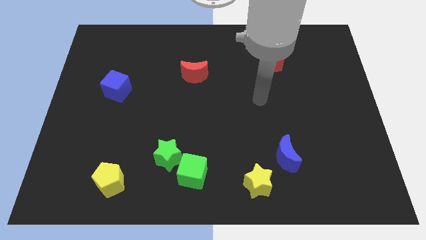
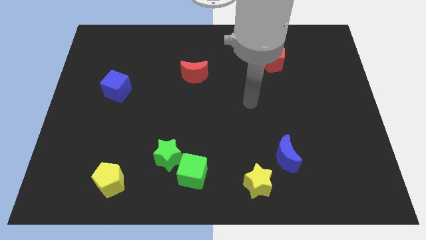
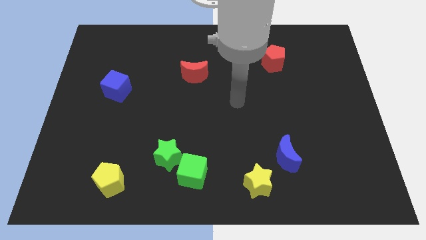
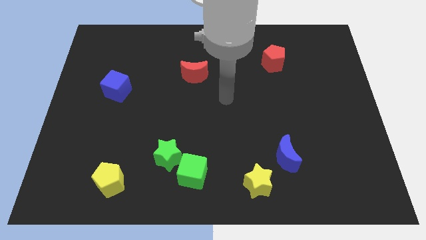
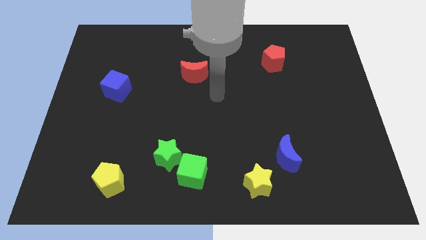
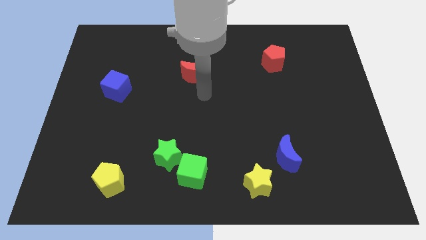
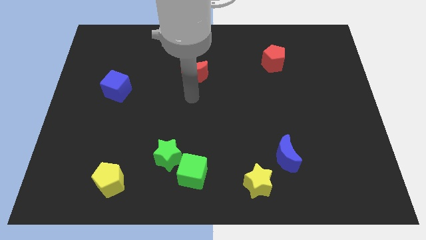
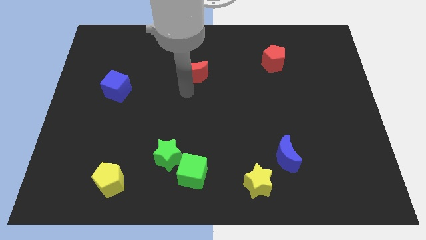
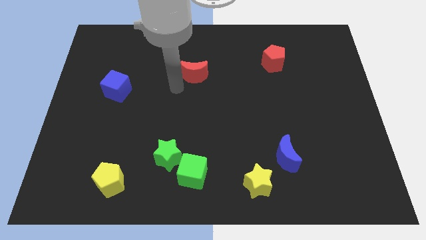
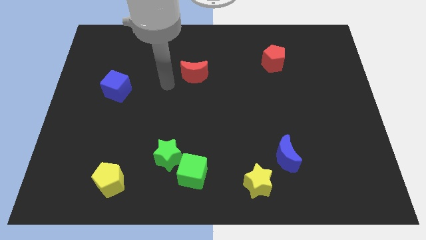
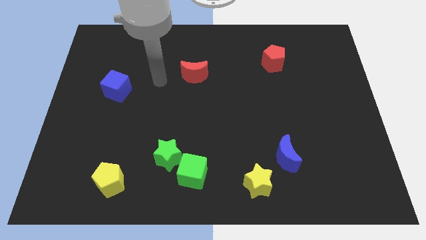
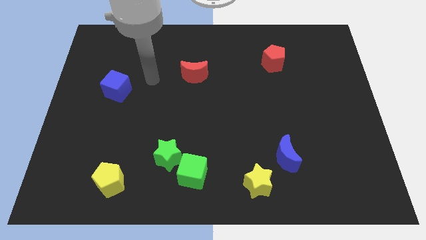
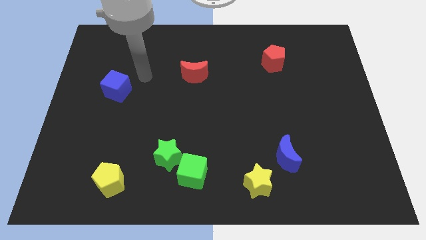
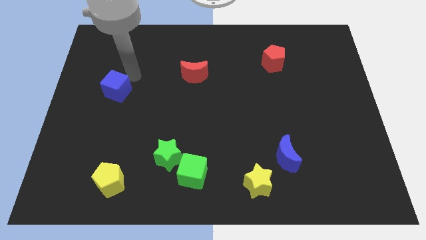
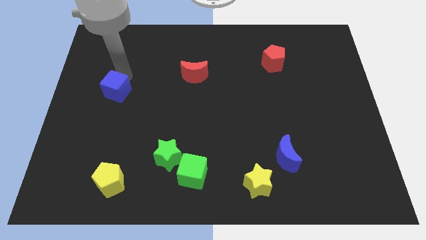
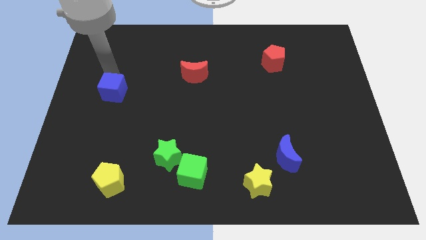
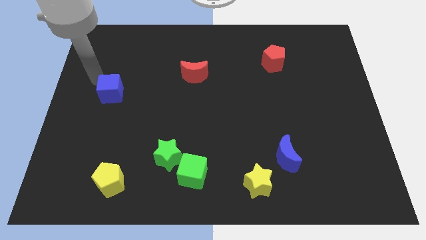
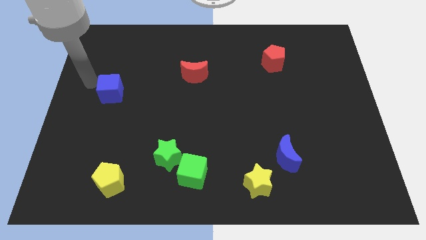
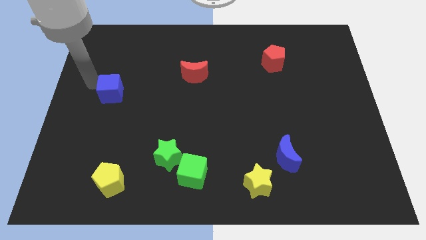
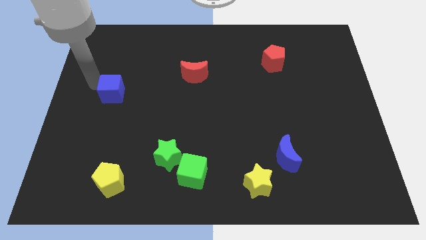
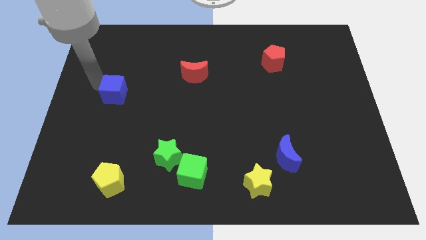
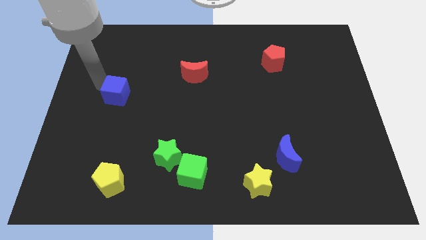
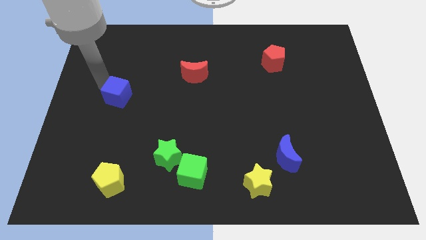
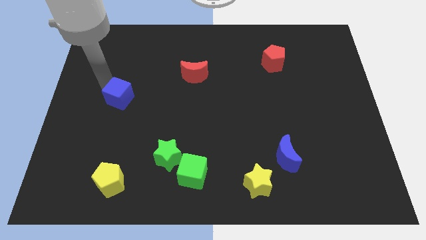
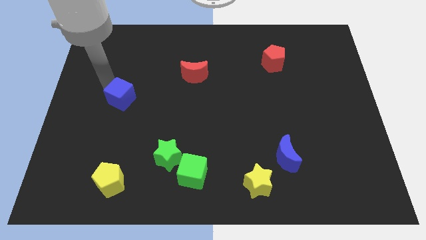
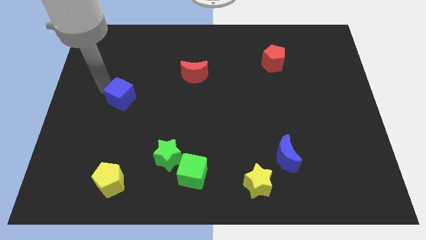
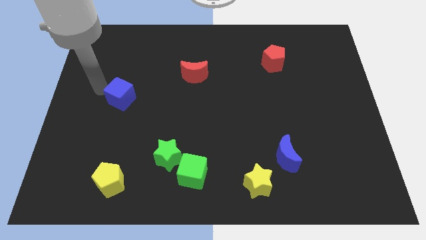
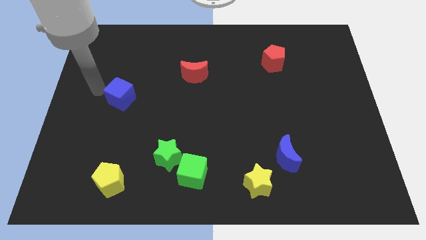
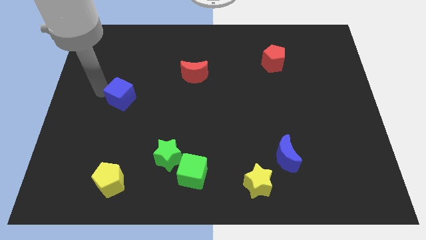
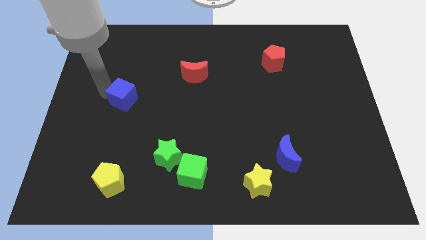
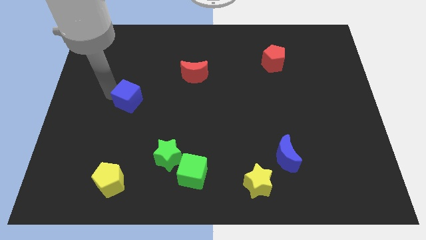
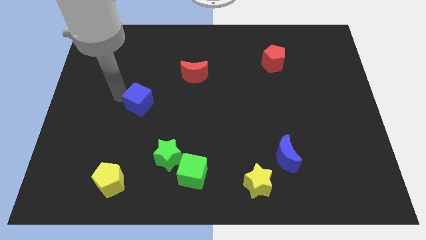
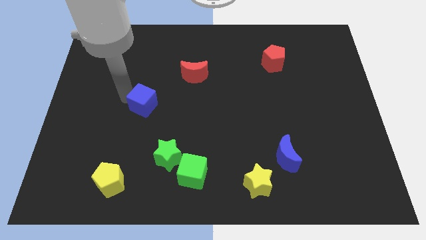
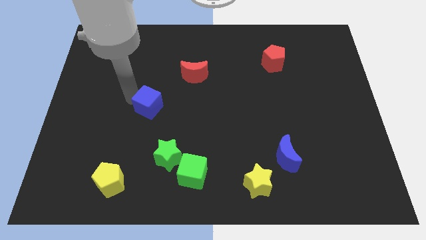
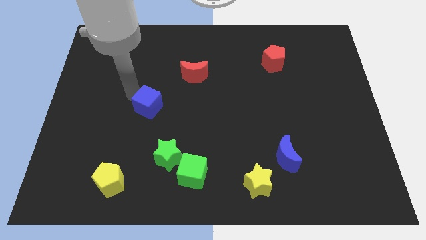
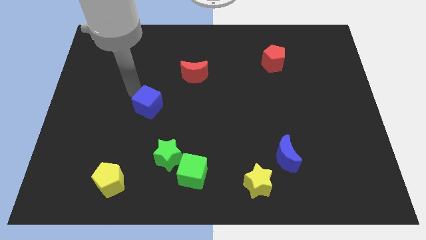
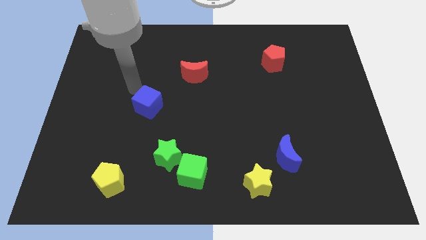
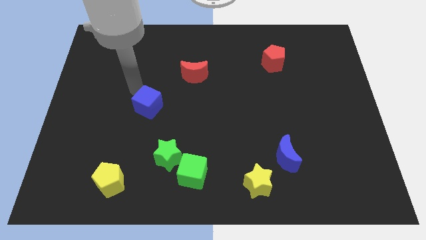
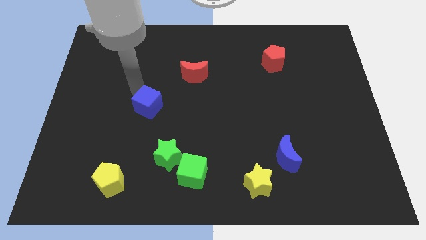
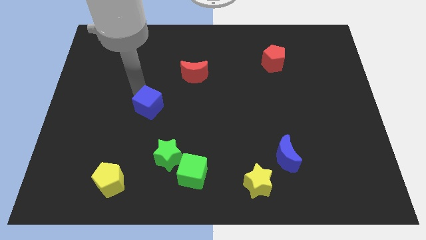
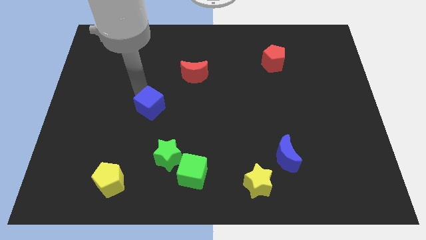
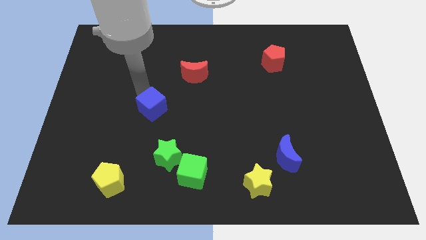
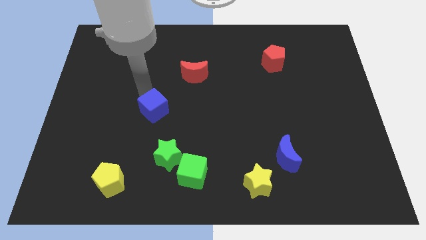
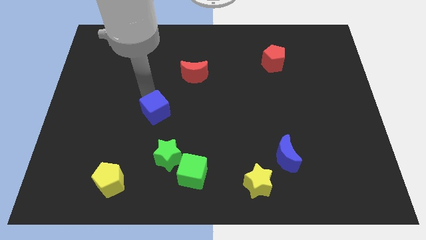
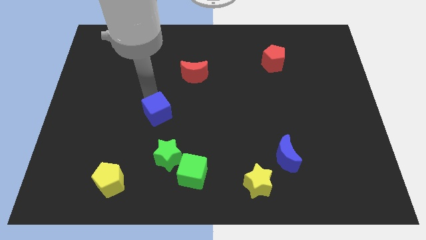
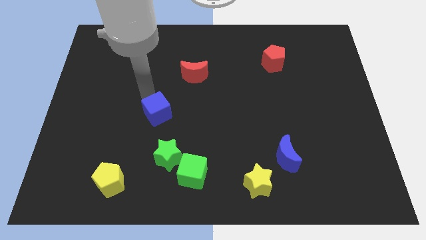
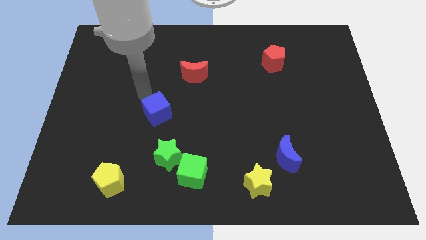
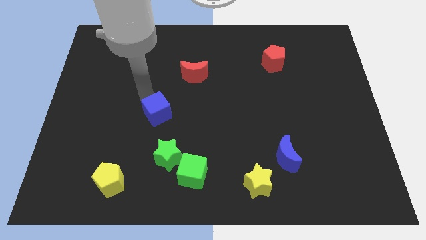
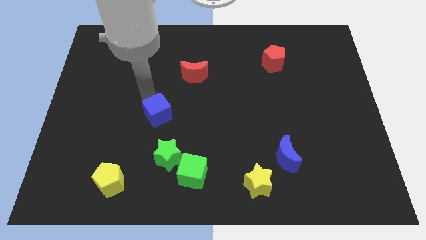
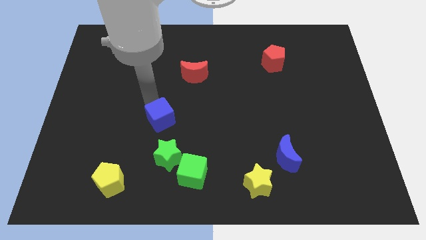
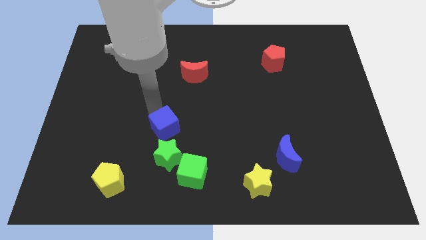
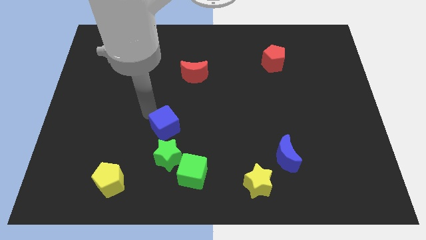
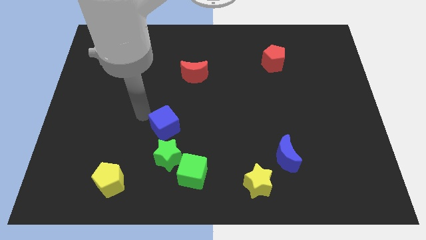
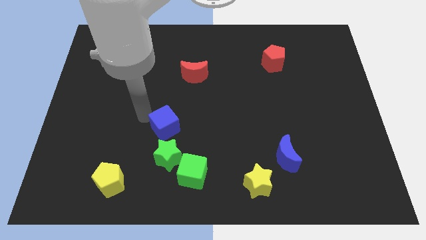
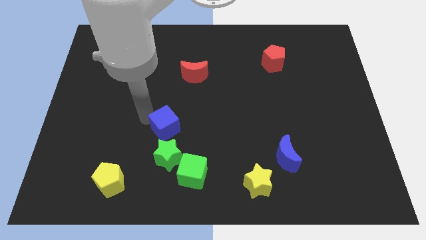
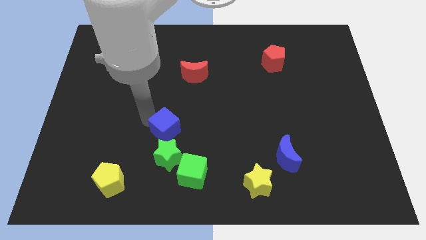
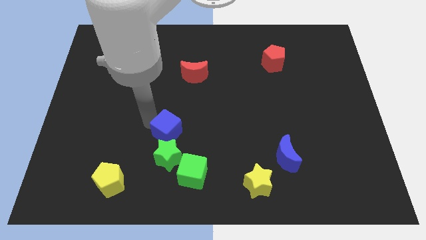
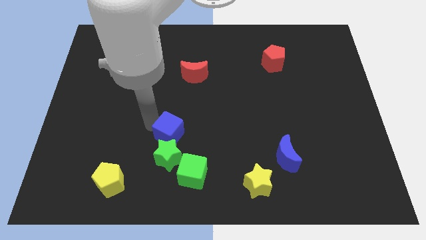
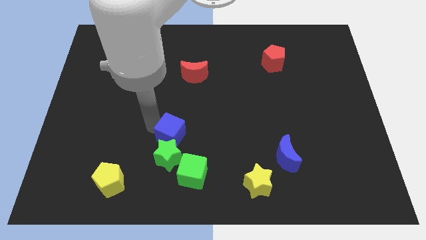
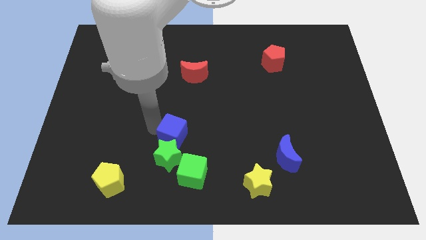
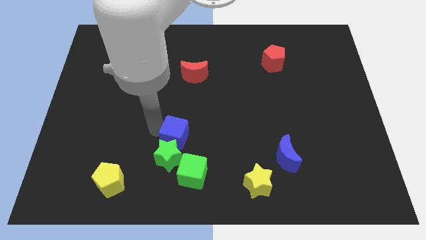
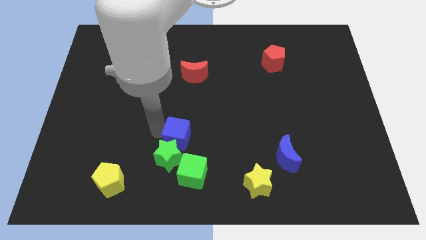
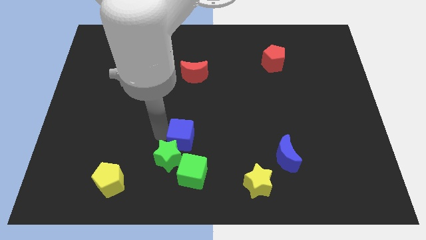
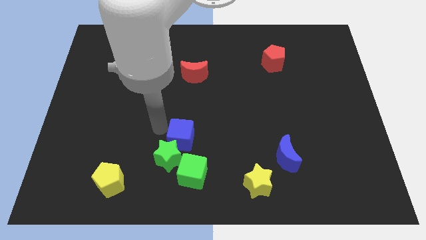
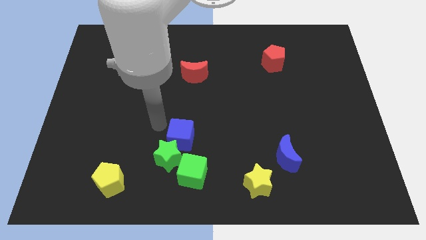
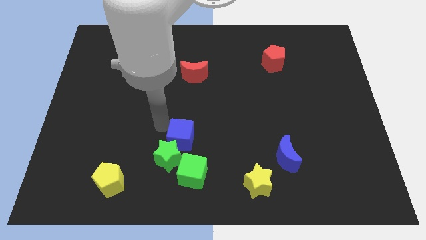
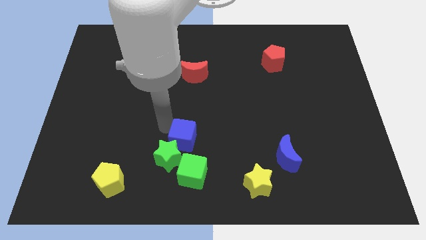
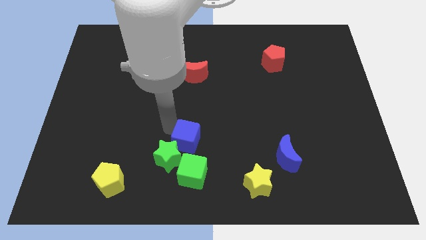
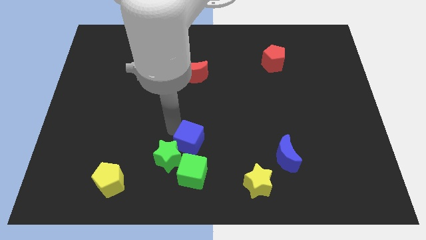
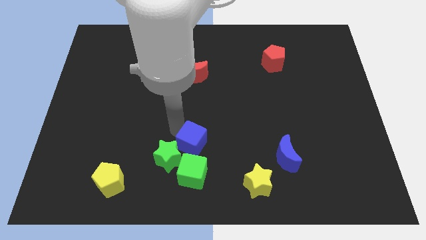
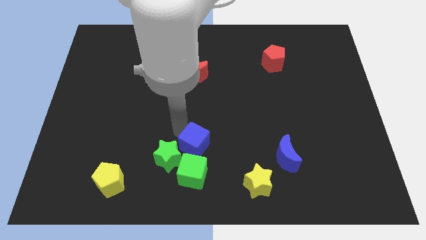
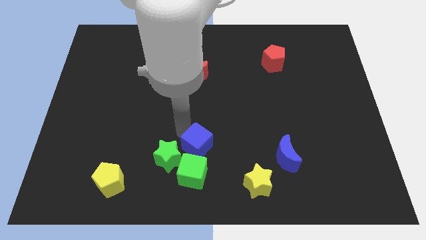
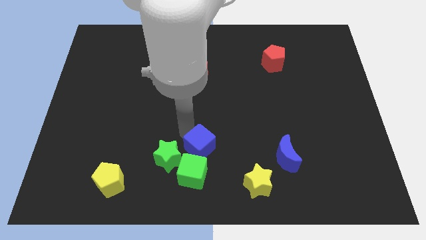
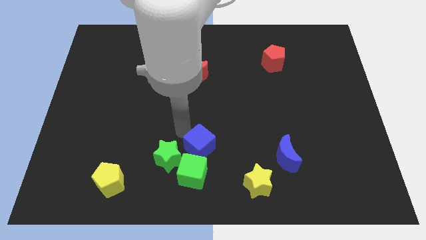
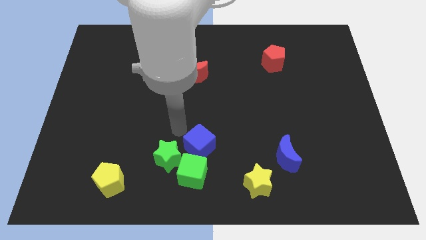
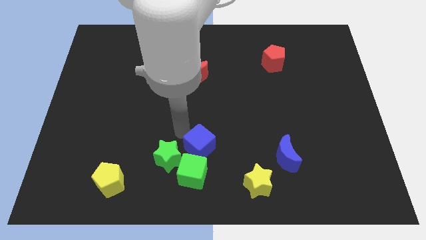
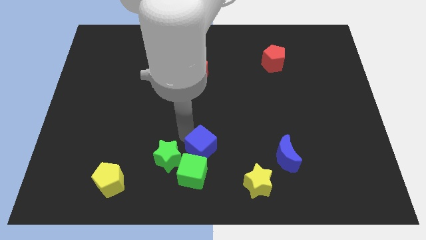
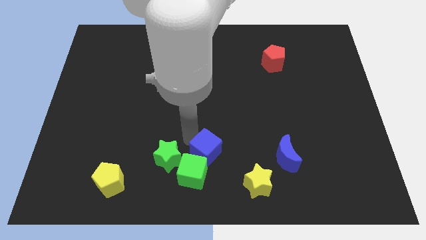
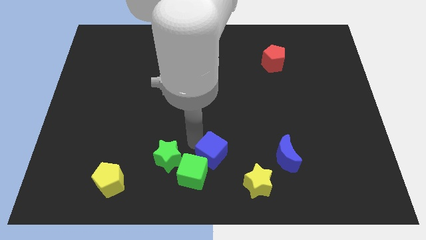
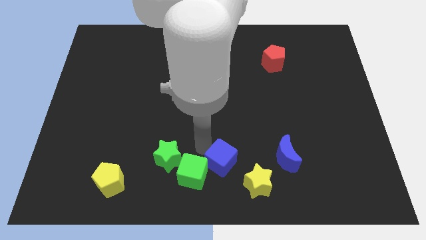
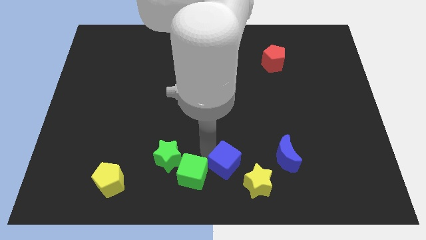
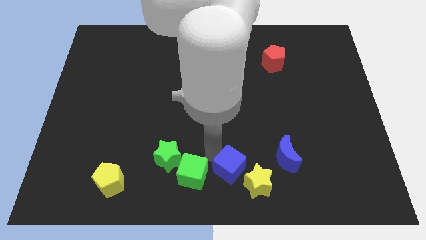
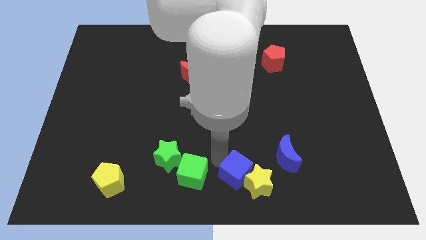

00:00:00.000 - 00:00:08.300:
put the blue cube to the yellow star
